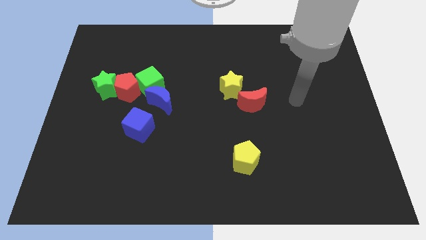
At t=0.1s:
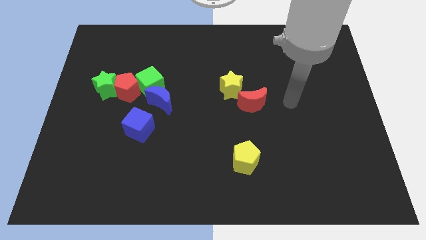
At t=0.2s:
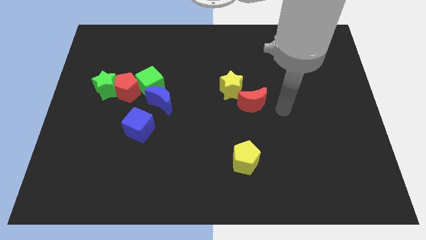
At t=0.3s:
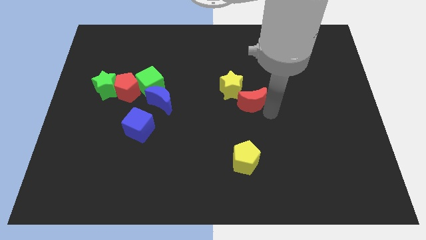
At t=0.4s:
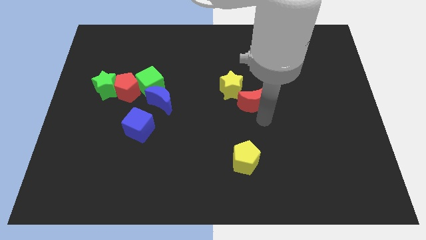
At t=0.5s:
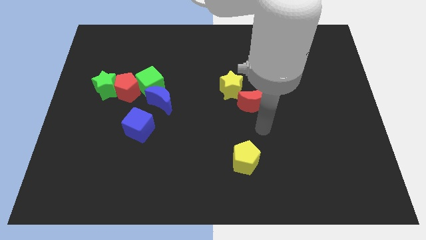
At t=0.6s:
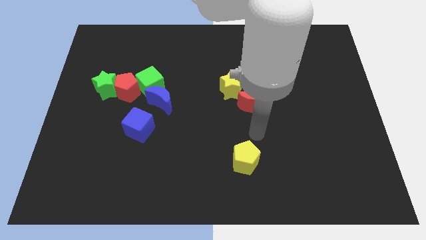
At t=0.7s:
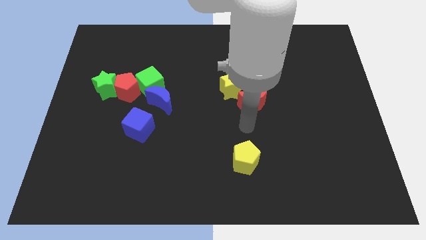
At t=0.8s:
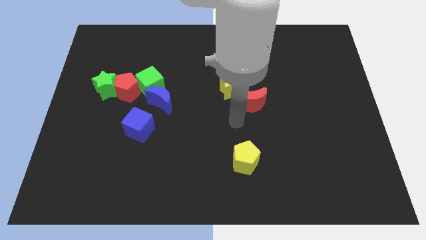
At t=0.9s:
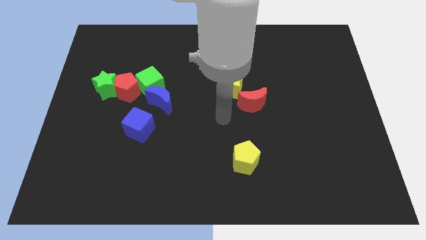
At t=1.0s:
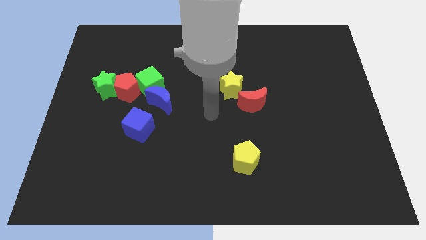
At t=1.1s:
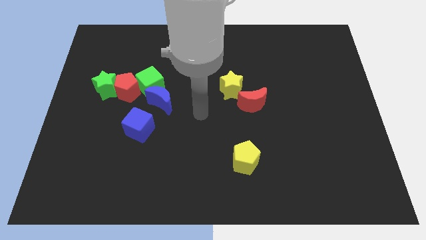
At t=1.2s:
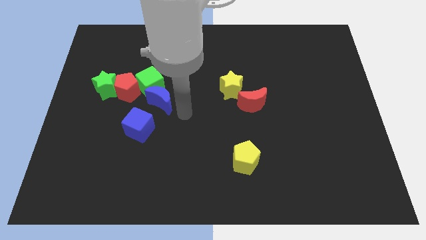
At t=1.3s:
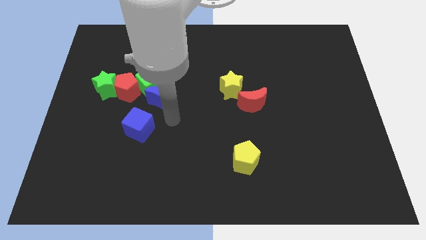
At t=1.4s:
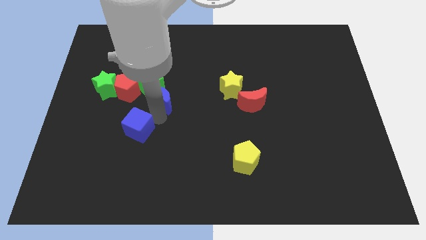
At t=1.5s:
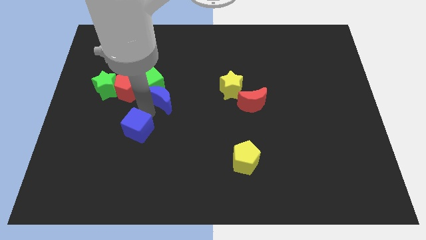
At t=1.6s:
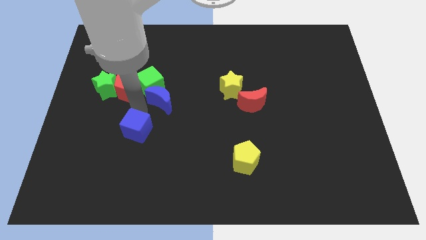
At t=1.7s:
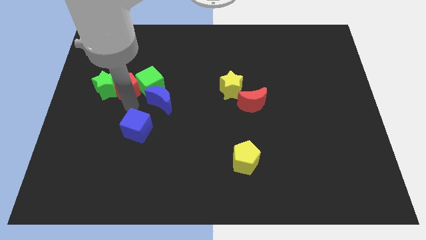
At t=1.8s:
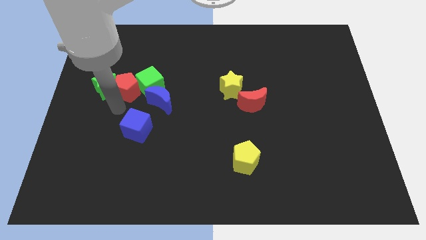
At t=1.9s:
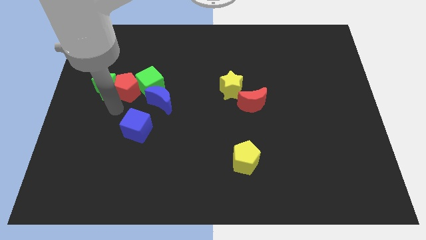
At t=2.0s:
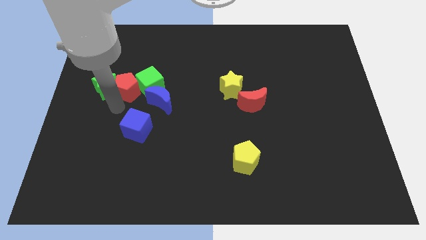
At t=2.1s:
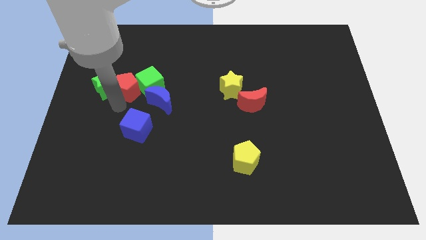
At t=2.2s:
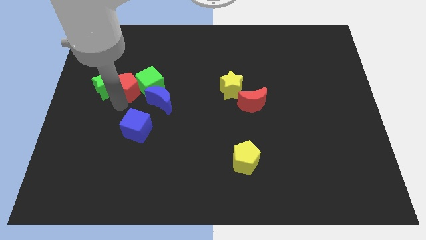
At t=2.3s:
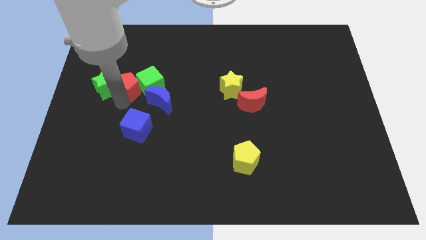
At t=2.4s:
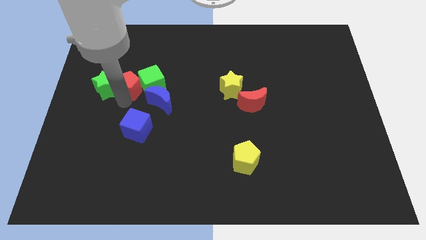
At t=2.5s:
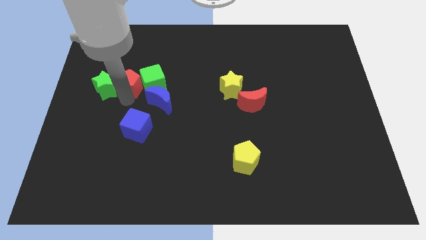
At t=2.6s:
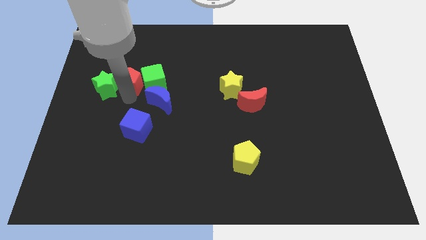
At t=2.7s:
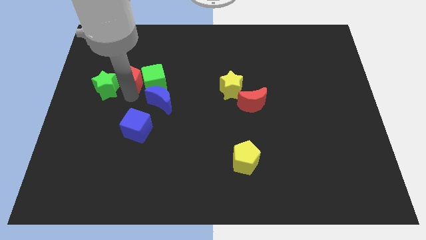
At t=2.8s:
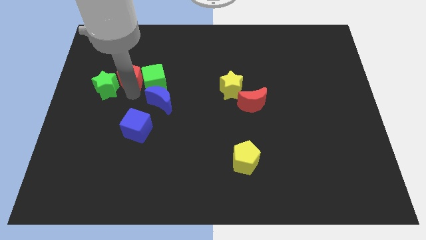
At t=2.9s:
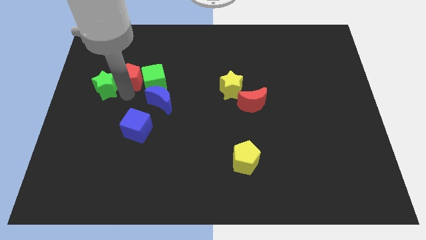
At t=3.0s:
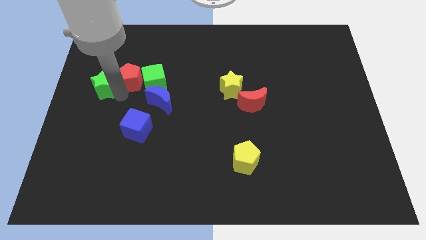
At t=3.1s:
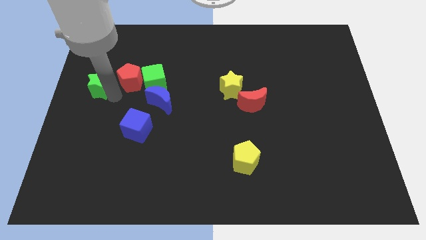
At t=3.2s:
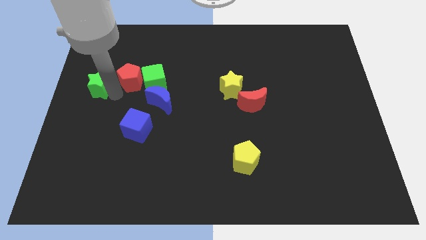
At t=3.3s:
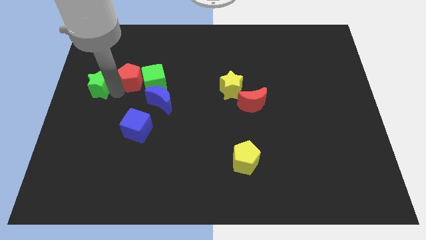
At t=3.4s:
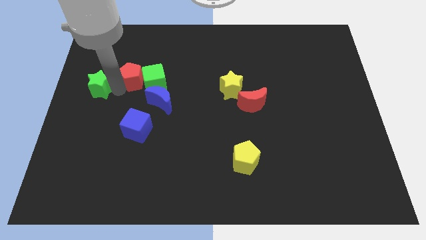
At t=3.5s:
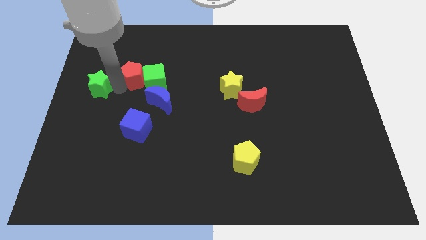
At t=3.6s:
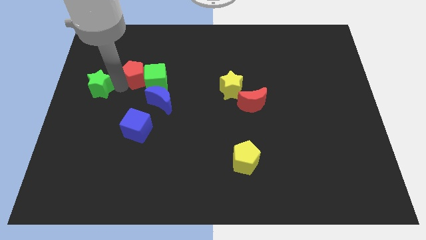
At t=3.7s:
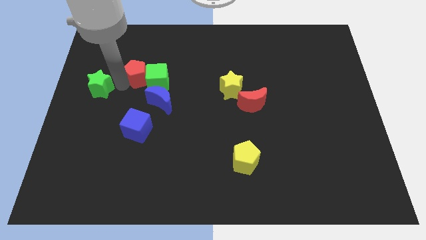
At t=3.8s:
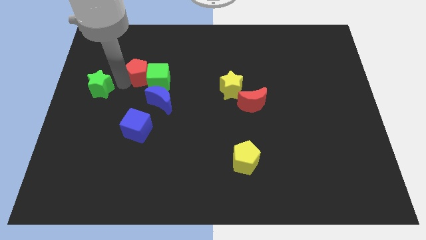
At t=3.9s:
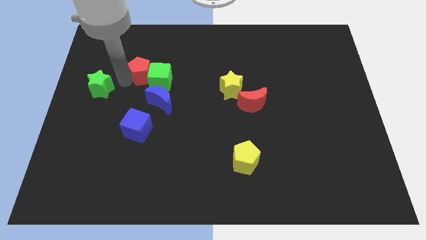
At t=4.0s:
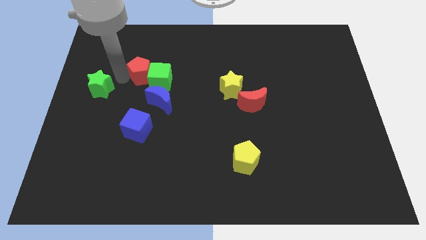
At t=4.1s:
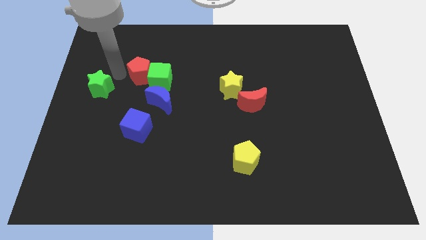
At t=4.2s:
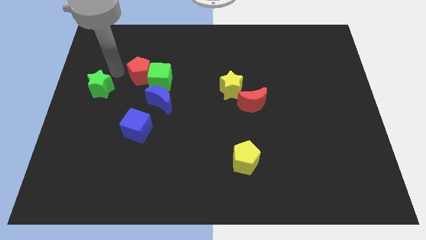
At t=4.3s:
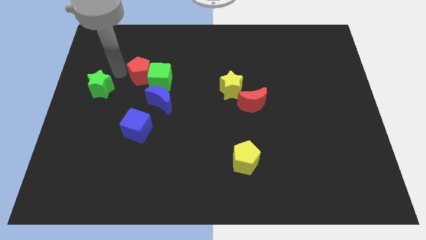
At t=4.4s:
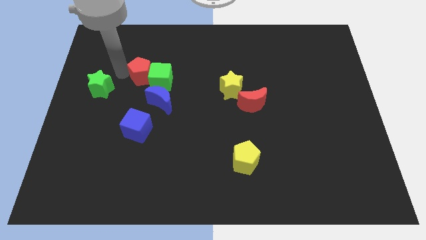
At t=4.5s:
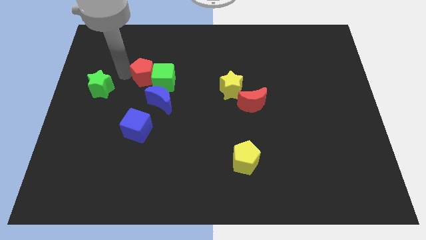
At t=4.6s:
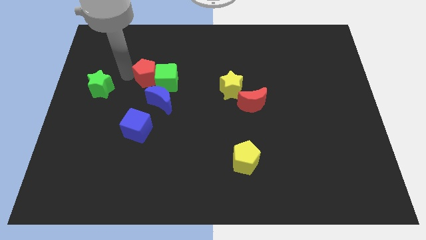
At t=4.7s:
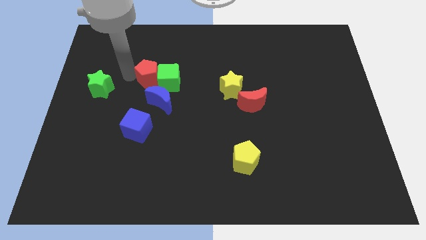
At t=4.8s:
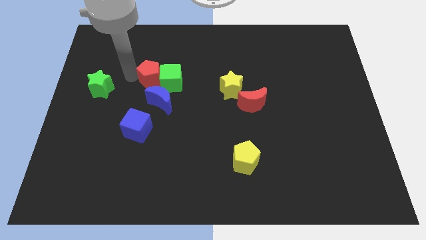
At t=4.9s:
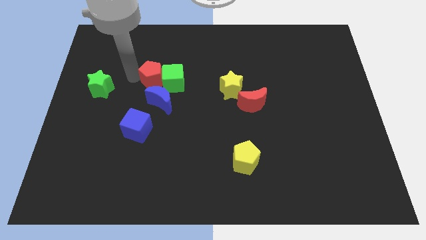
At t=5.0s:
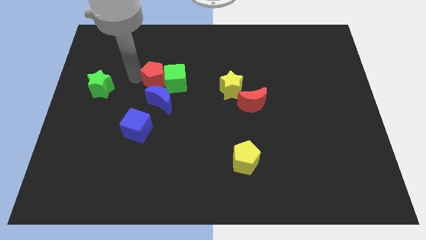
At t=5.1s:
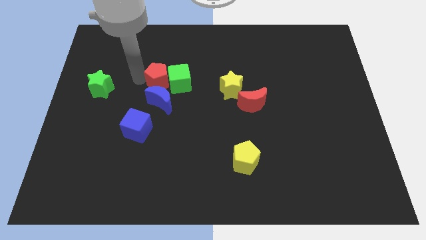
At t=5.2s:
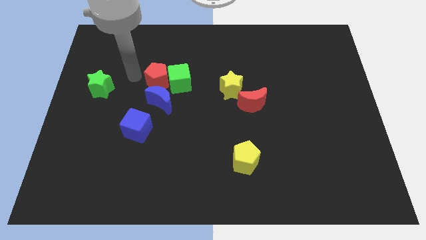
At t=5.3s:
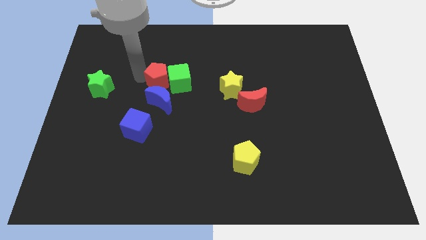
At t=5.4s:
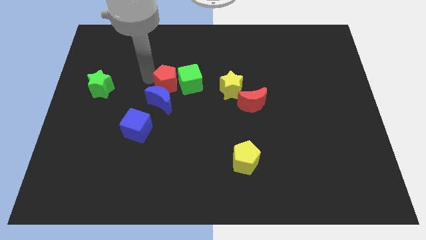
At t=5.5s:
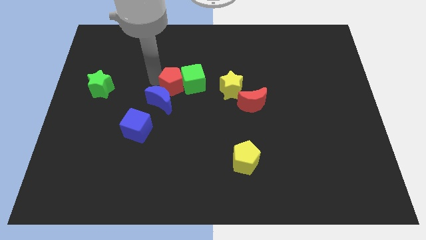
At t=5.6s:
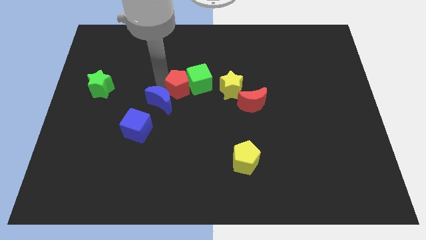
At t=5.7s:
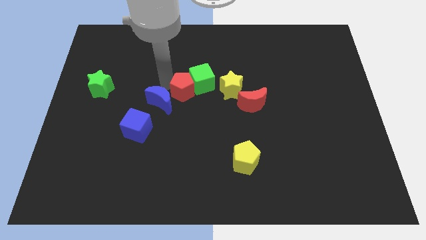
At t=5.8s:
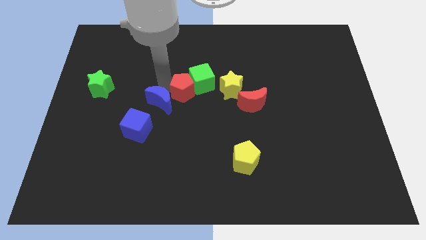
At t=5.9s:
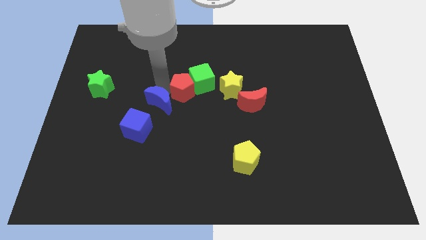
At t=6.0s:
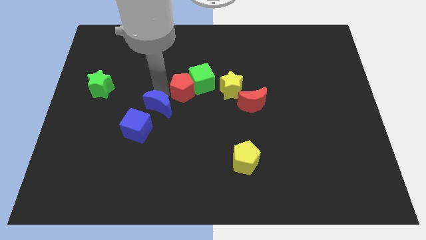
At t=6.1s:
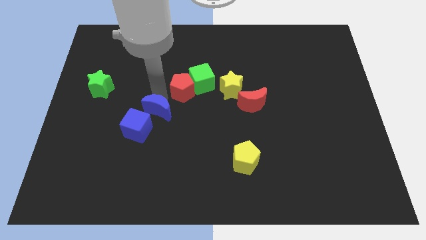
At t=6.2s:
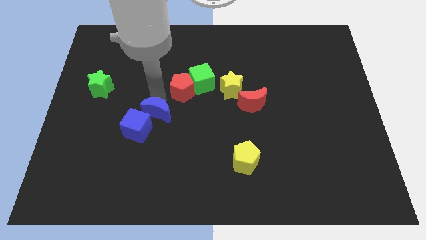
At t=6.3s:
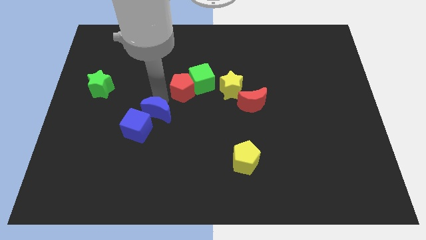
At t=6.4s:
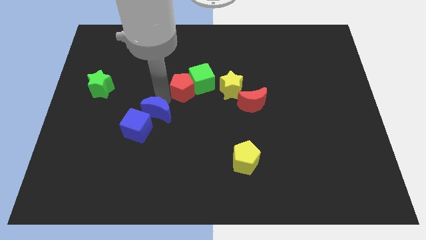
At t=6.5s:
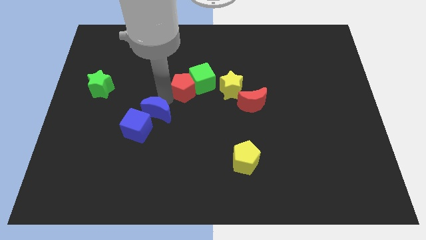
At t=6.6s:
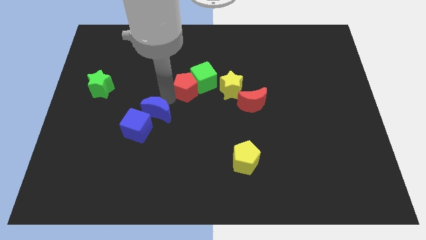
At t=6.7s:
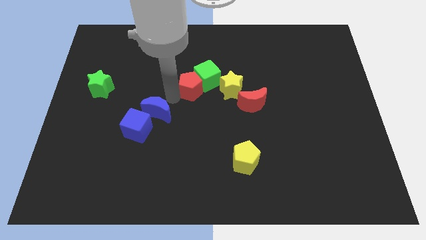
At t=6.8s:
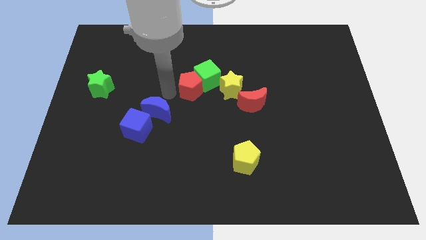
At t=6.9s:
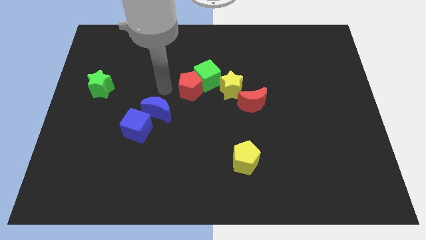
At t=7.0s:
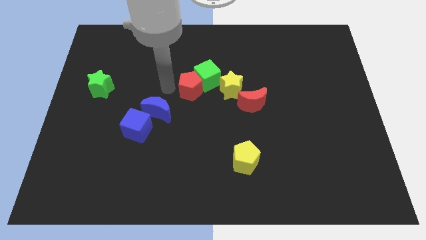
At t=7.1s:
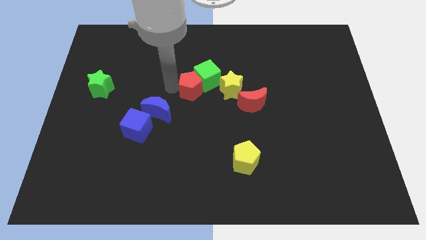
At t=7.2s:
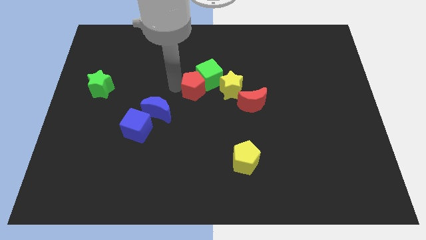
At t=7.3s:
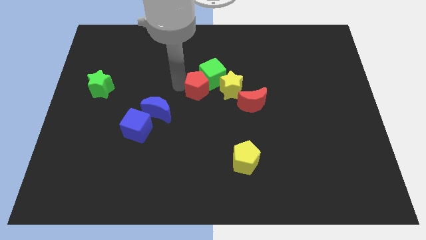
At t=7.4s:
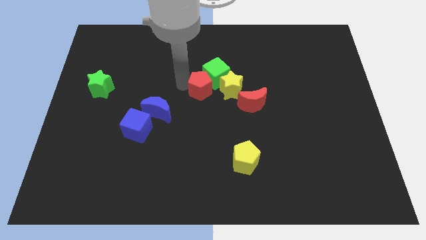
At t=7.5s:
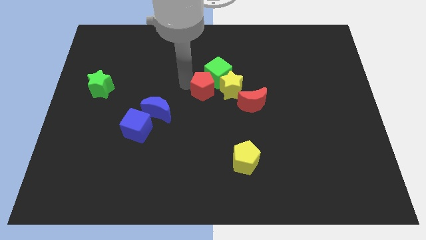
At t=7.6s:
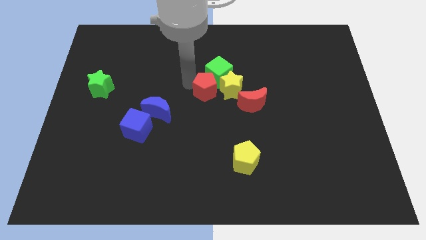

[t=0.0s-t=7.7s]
slide the red pentagon towards the yellow star
